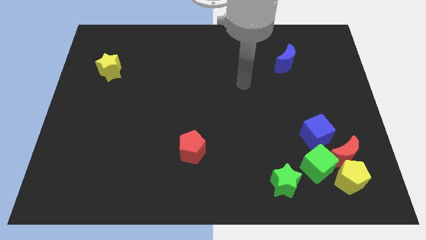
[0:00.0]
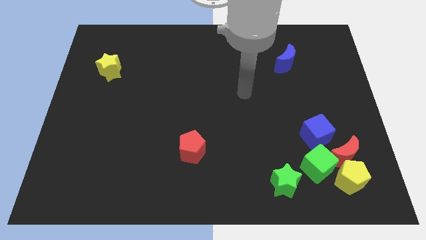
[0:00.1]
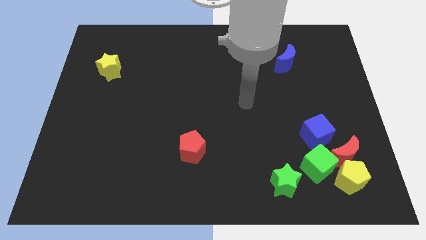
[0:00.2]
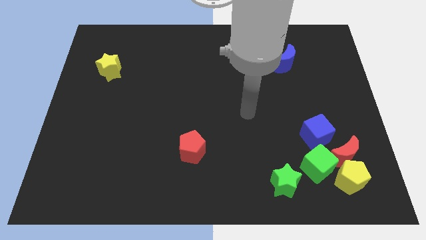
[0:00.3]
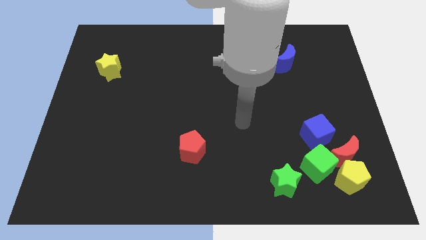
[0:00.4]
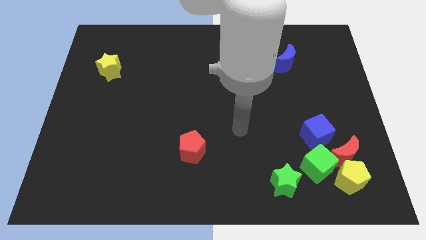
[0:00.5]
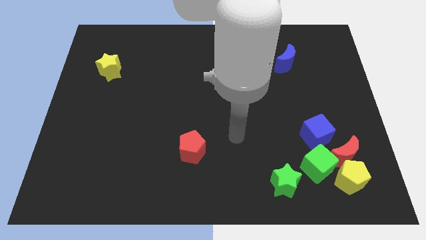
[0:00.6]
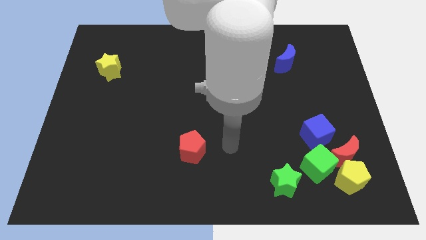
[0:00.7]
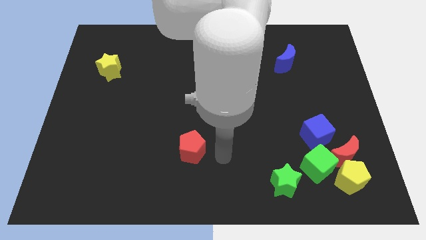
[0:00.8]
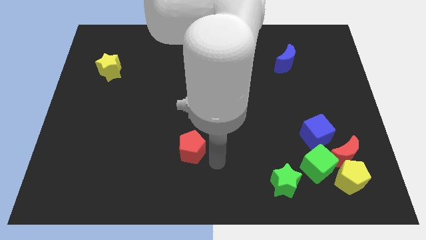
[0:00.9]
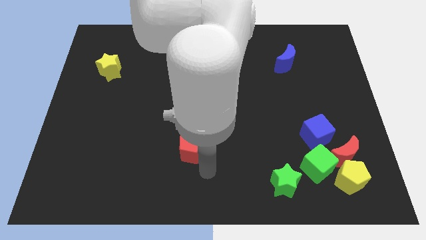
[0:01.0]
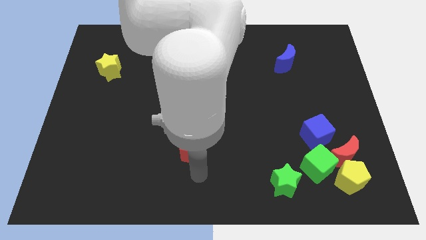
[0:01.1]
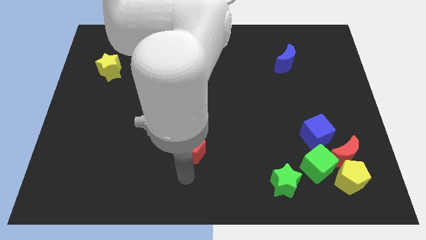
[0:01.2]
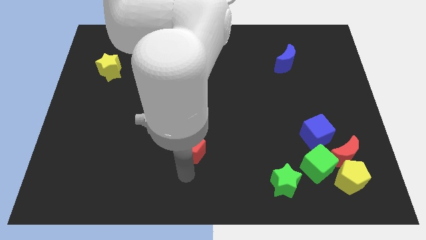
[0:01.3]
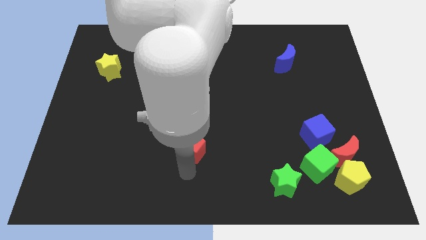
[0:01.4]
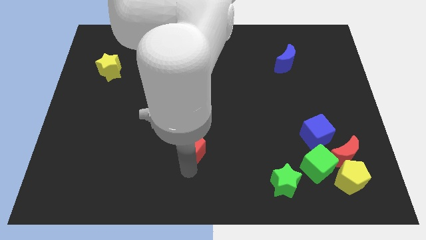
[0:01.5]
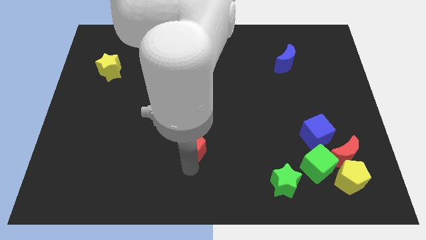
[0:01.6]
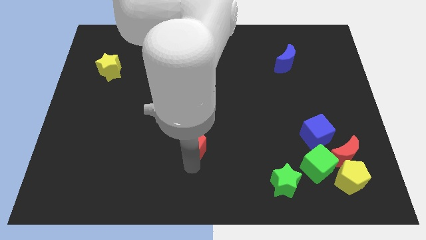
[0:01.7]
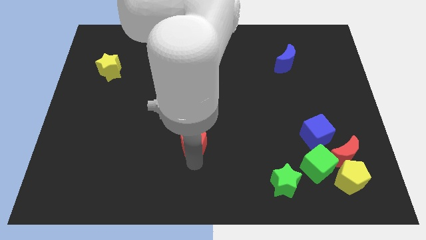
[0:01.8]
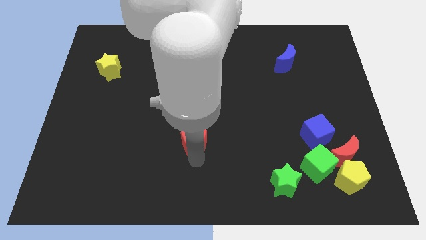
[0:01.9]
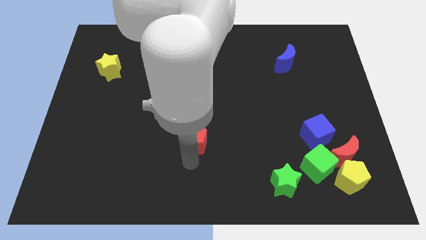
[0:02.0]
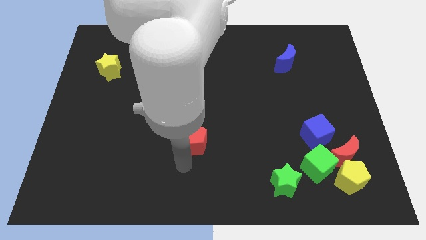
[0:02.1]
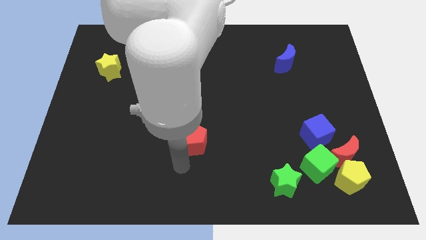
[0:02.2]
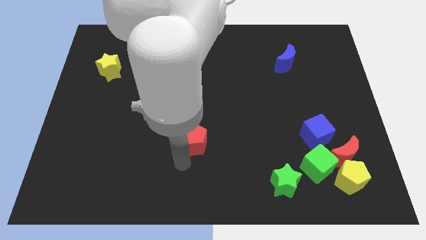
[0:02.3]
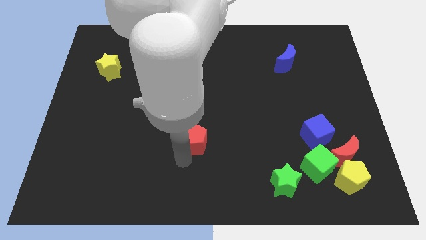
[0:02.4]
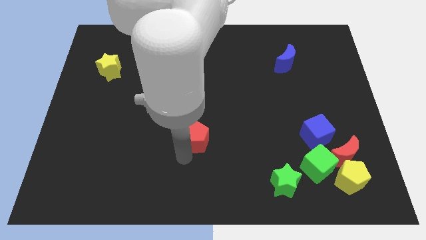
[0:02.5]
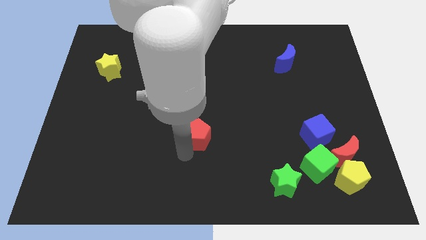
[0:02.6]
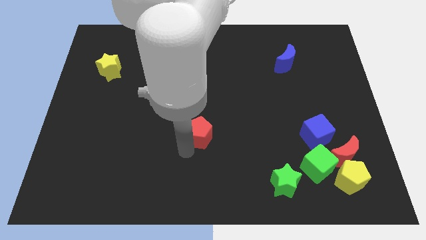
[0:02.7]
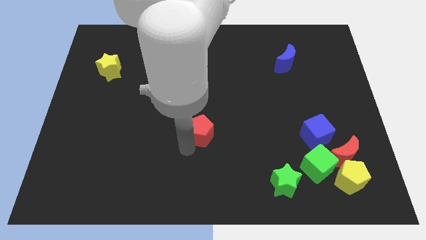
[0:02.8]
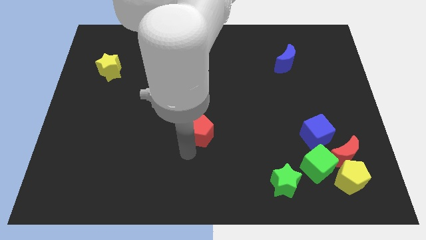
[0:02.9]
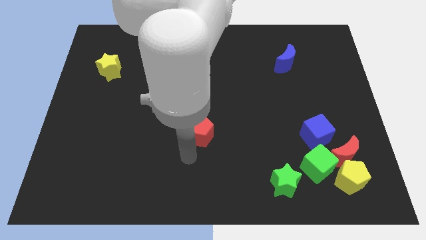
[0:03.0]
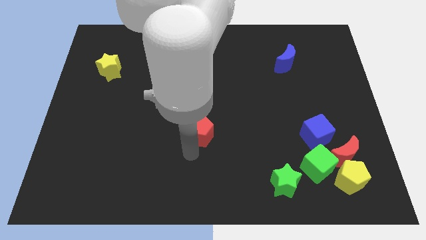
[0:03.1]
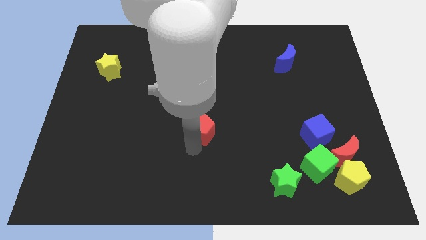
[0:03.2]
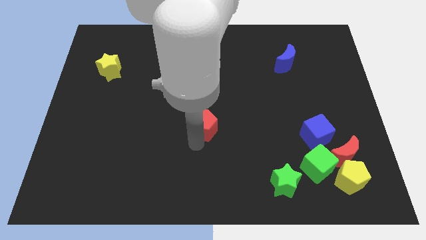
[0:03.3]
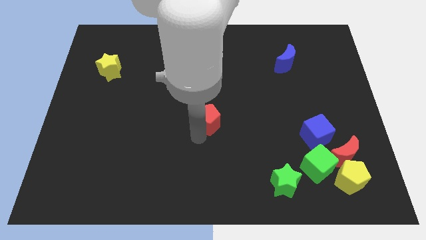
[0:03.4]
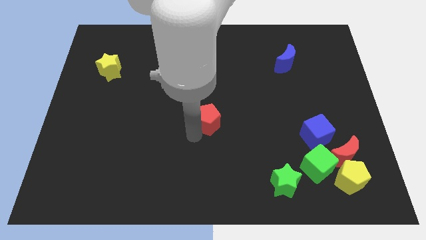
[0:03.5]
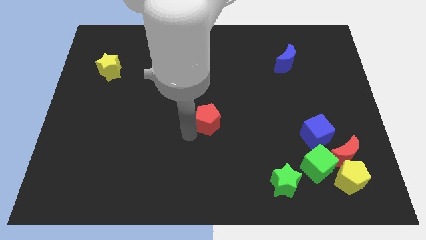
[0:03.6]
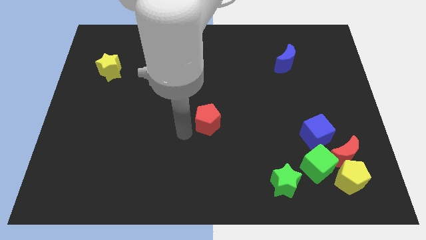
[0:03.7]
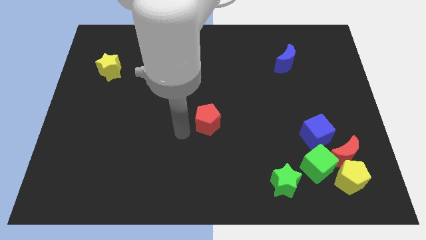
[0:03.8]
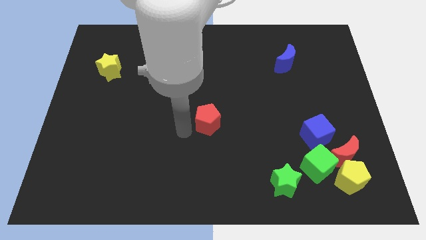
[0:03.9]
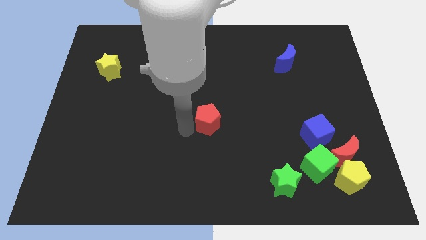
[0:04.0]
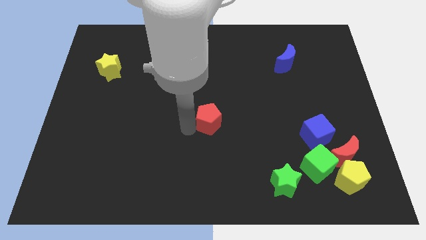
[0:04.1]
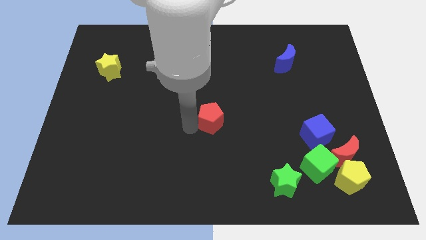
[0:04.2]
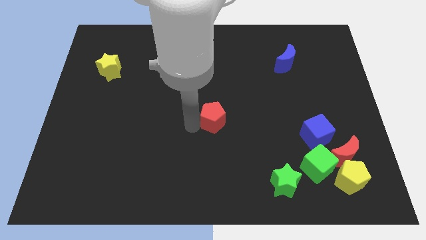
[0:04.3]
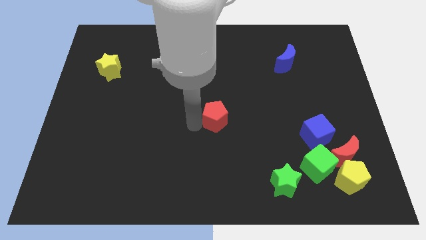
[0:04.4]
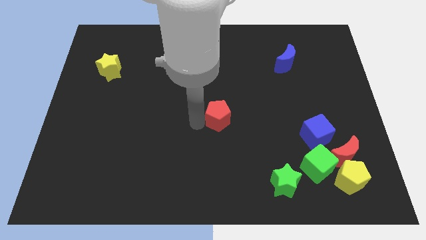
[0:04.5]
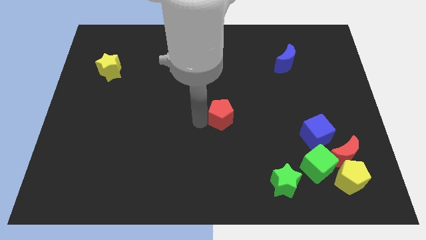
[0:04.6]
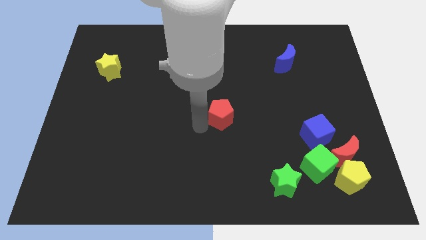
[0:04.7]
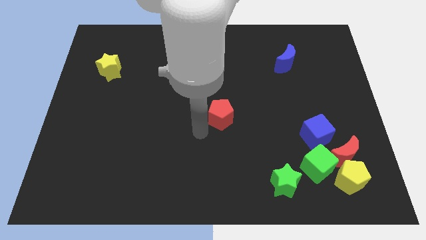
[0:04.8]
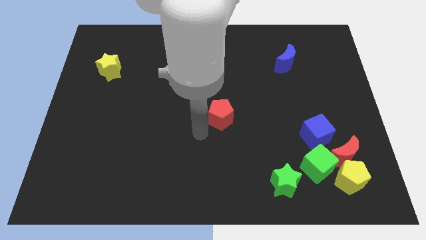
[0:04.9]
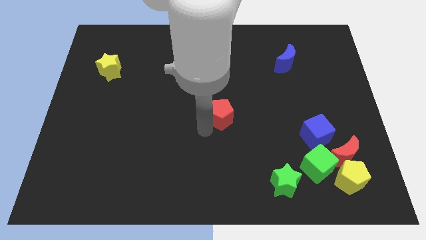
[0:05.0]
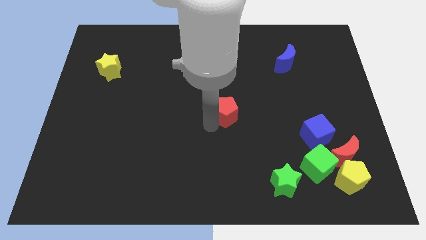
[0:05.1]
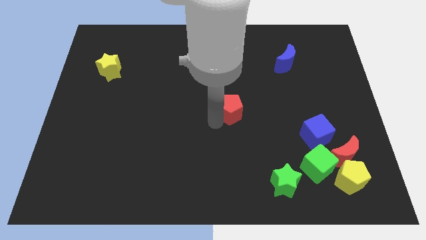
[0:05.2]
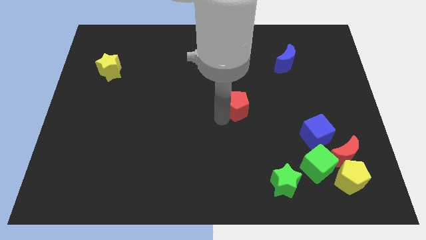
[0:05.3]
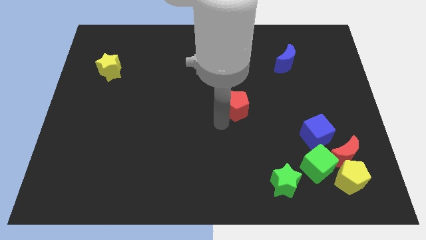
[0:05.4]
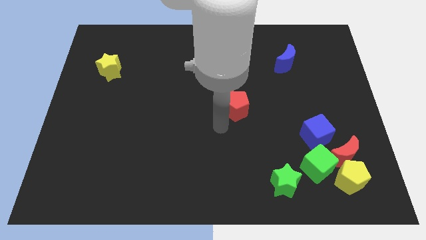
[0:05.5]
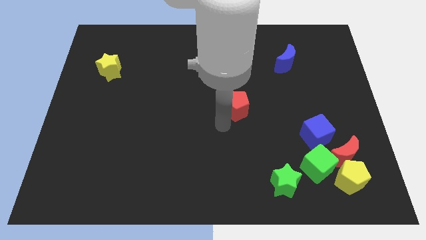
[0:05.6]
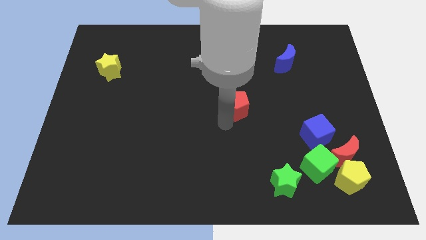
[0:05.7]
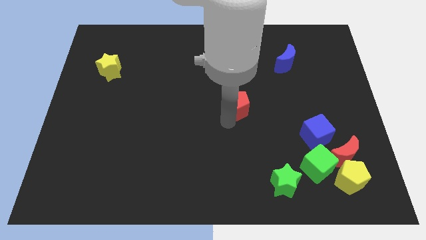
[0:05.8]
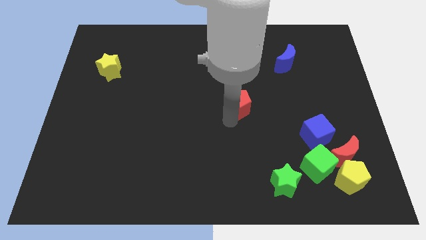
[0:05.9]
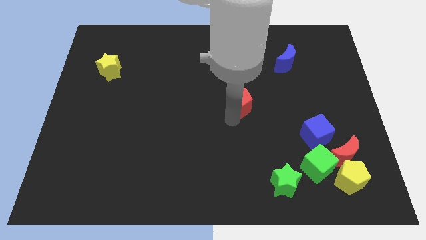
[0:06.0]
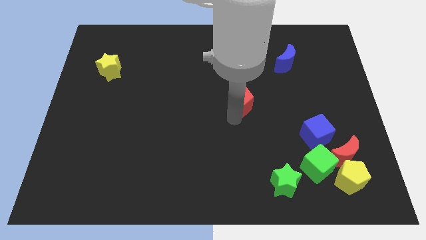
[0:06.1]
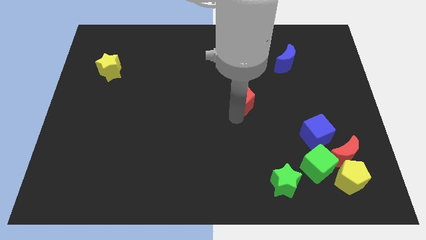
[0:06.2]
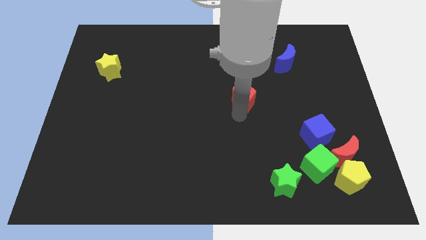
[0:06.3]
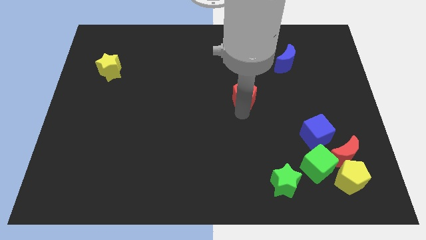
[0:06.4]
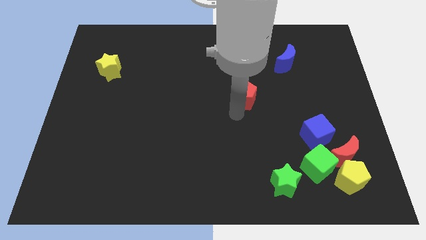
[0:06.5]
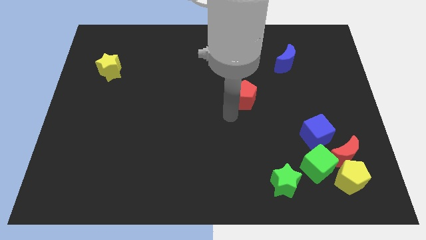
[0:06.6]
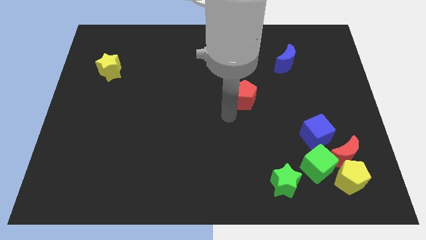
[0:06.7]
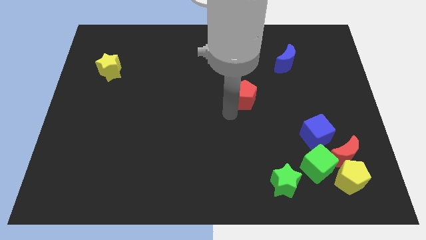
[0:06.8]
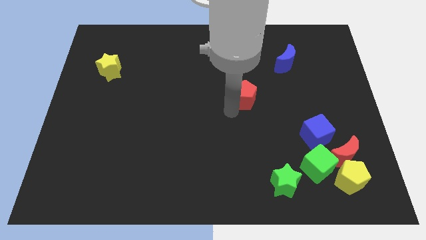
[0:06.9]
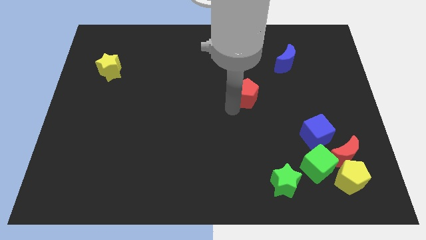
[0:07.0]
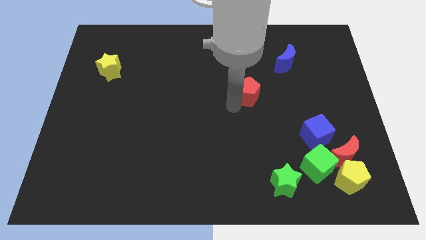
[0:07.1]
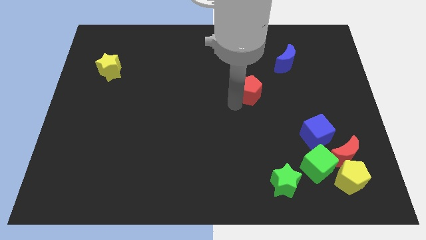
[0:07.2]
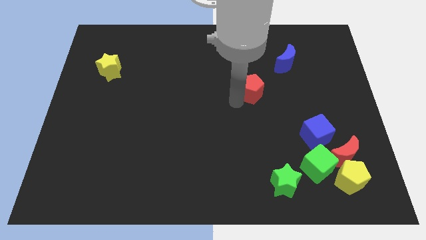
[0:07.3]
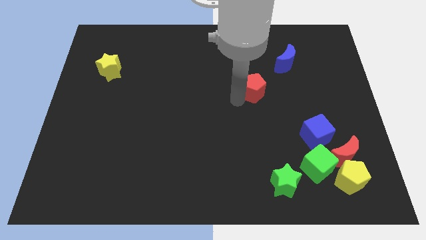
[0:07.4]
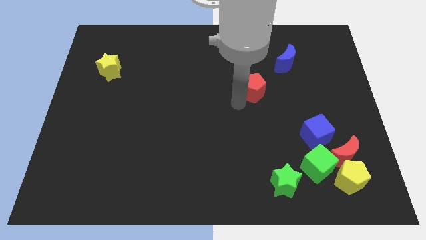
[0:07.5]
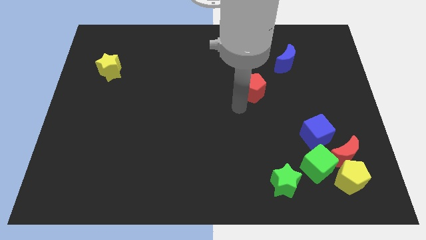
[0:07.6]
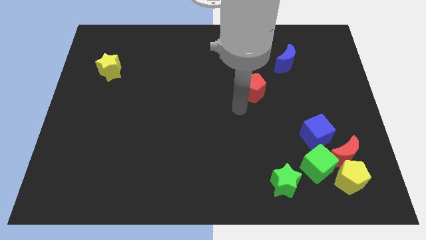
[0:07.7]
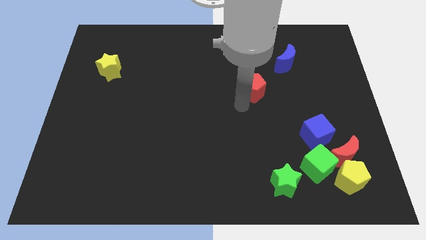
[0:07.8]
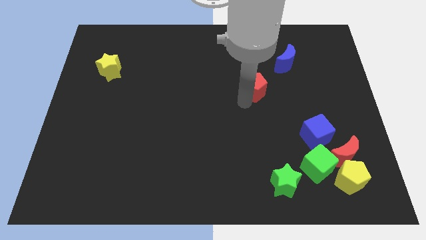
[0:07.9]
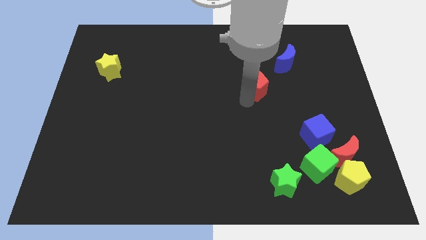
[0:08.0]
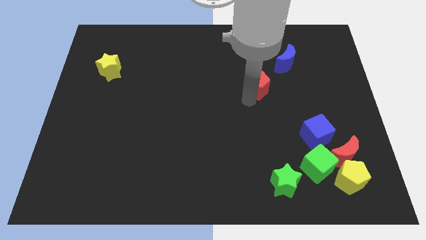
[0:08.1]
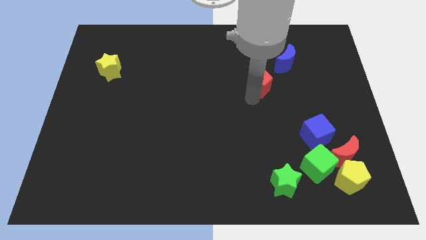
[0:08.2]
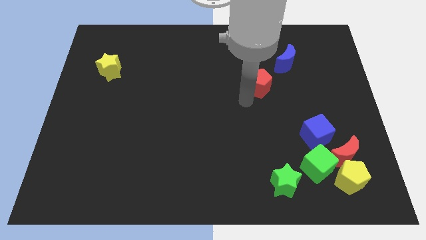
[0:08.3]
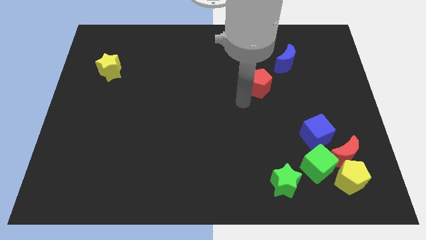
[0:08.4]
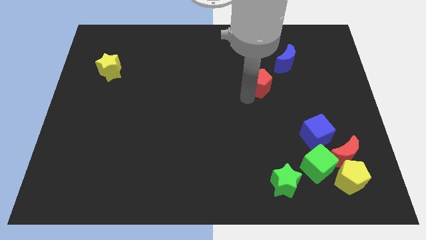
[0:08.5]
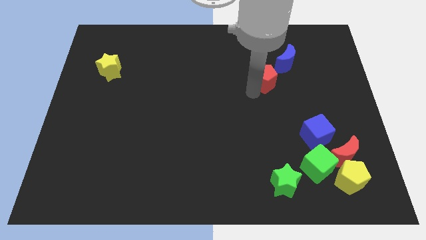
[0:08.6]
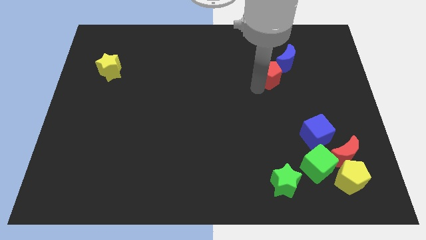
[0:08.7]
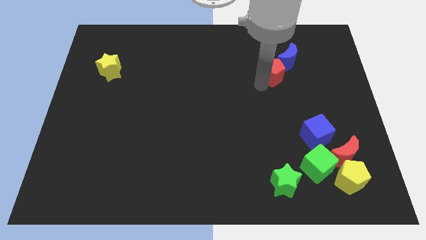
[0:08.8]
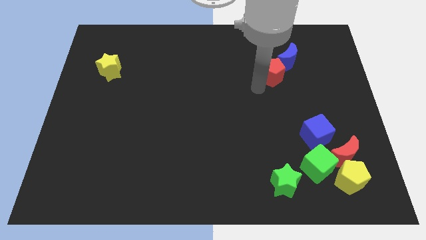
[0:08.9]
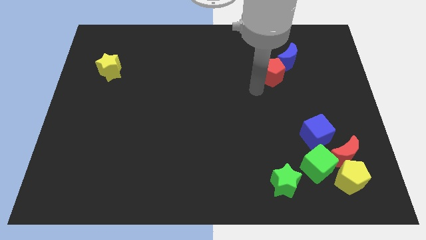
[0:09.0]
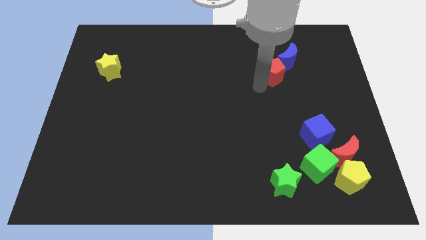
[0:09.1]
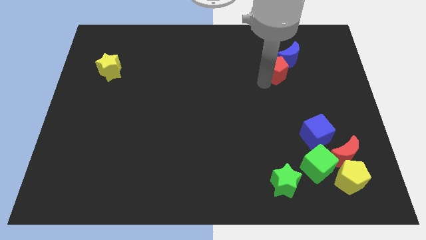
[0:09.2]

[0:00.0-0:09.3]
push the red pentagon close to the blue moon
